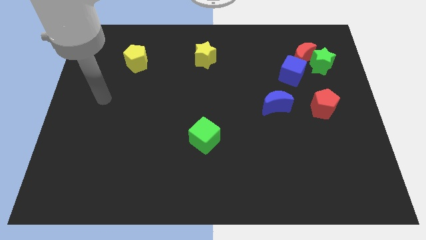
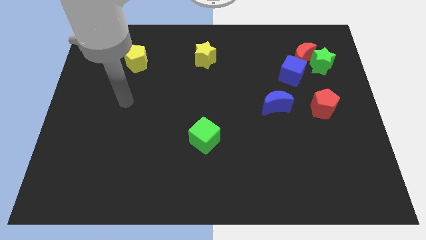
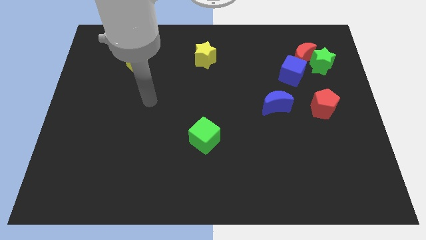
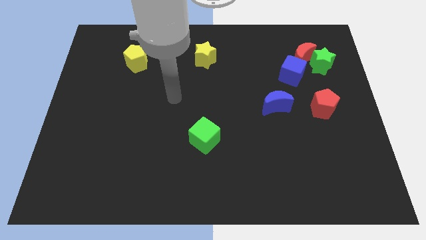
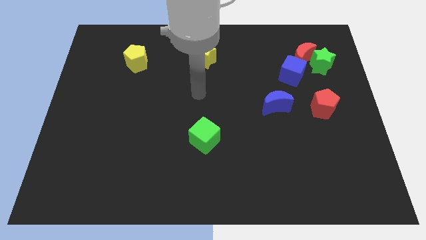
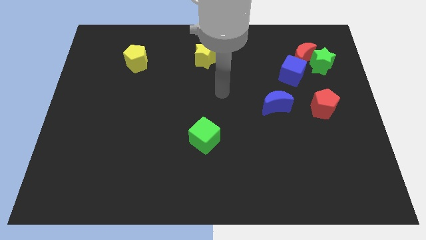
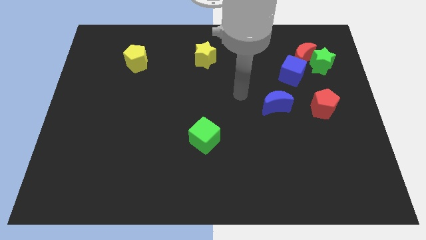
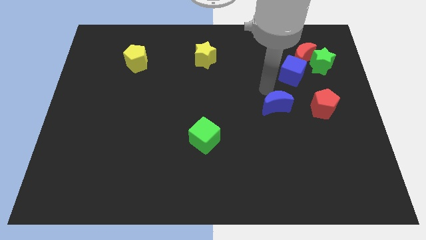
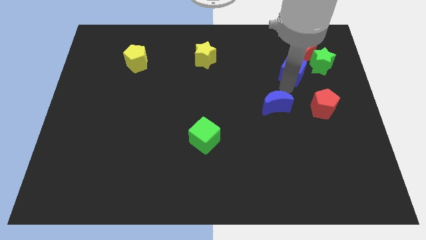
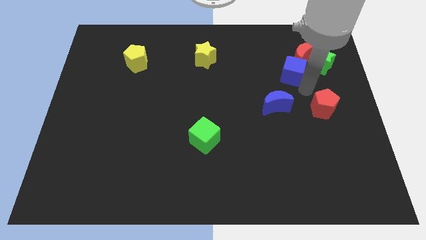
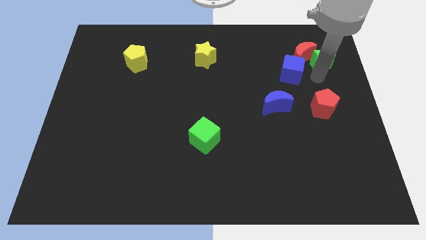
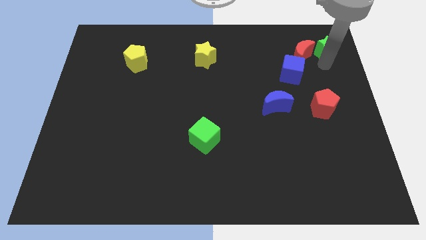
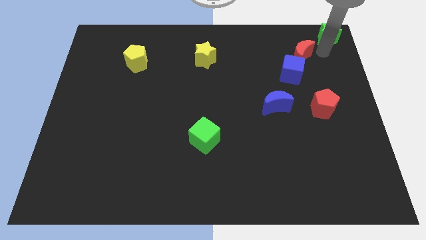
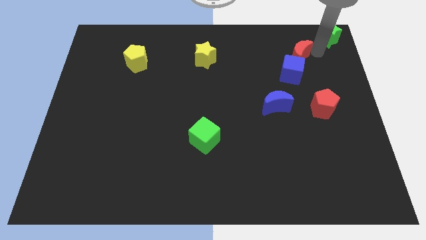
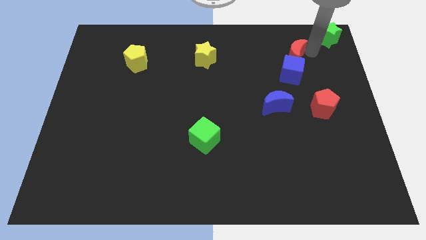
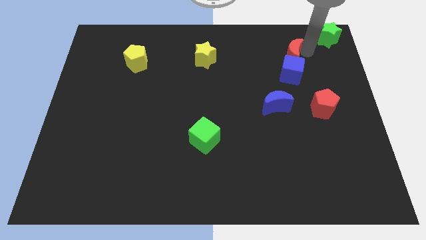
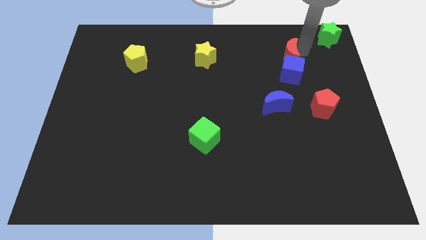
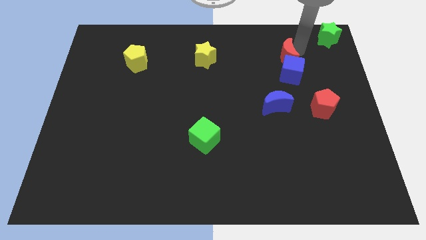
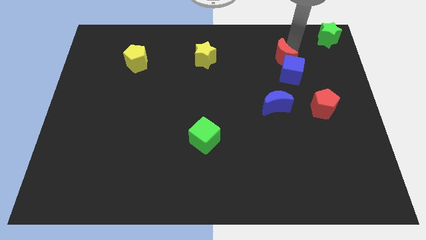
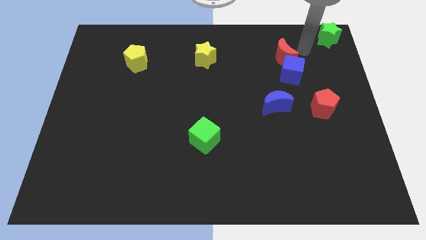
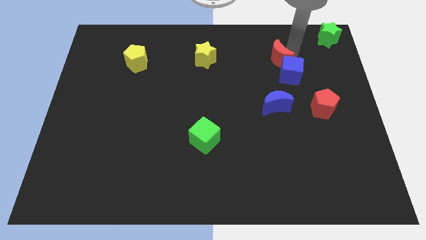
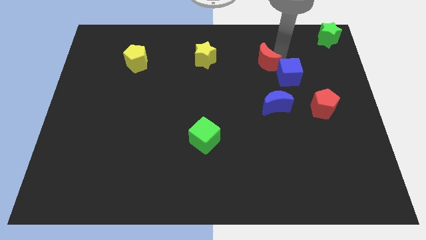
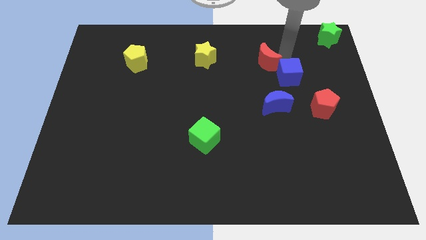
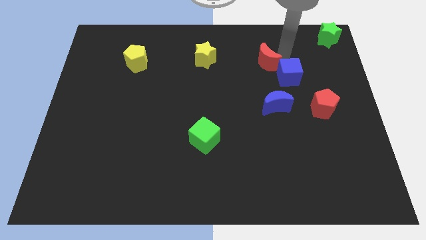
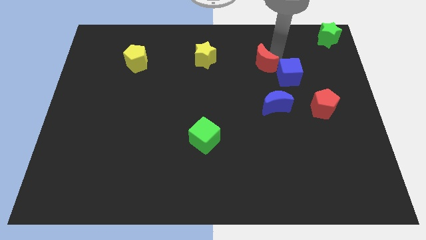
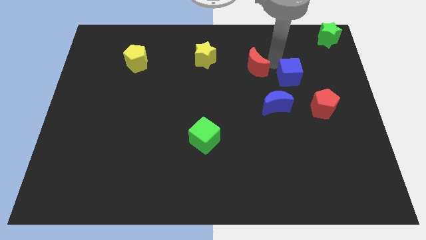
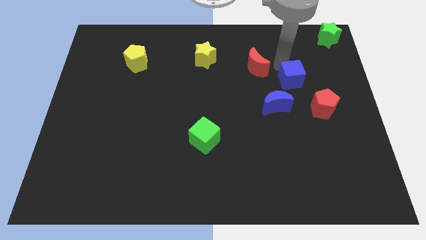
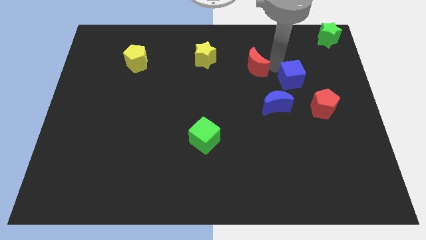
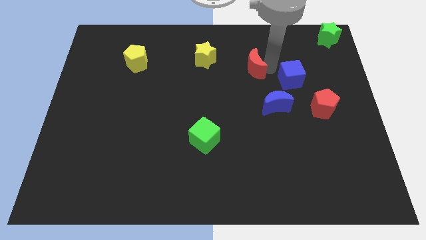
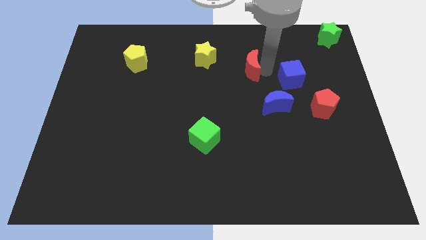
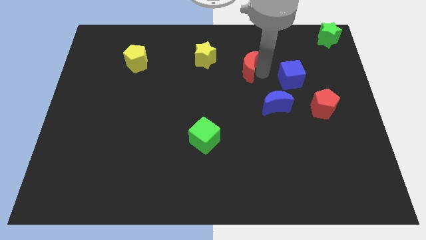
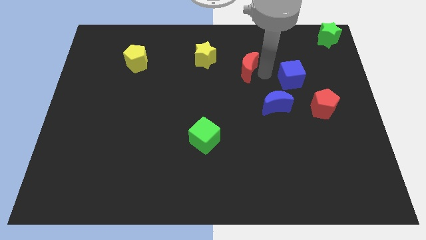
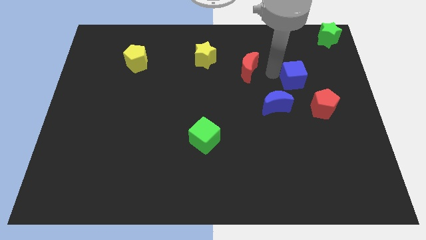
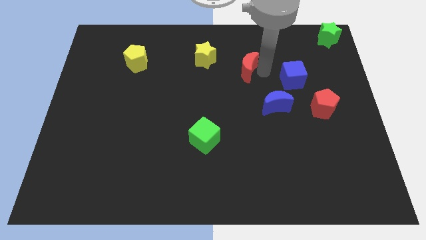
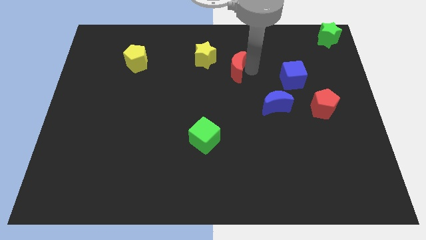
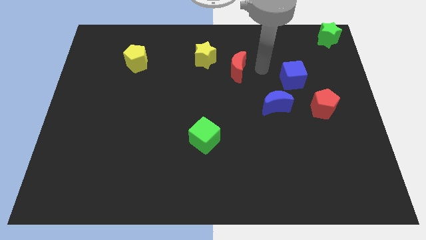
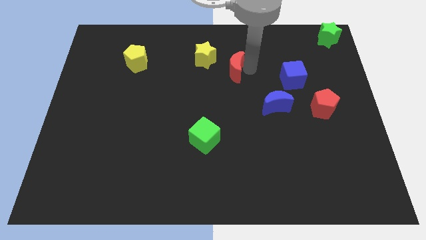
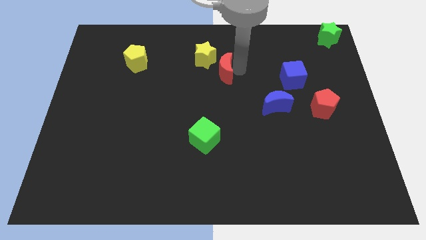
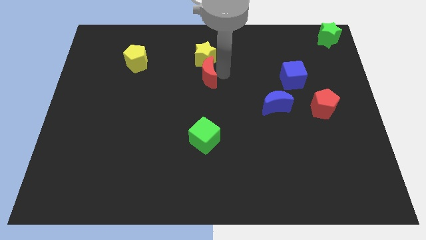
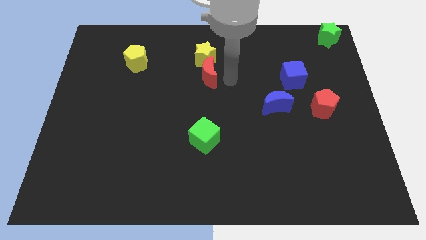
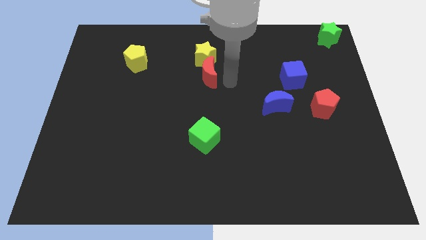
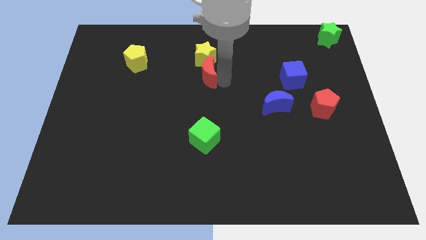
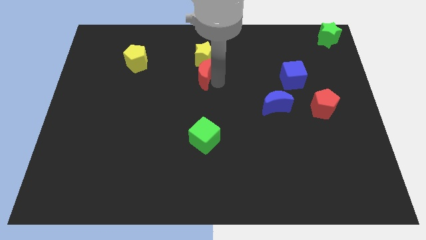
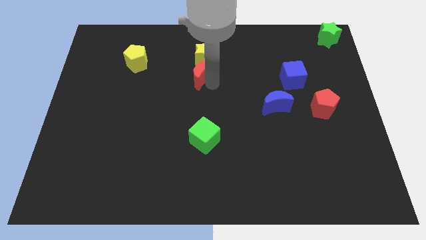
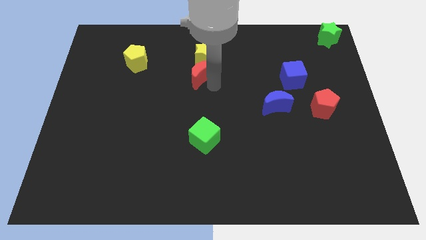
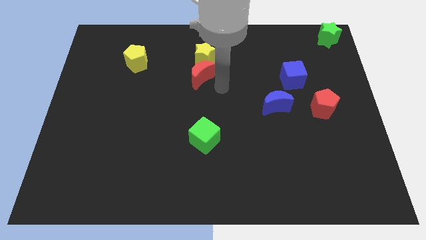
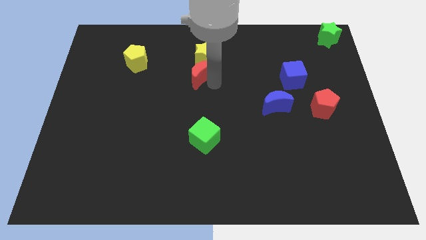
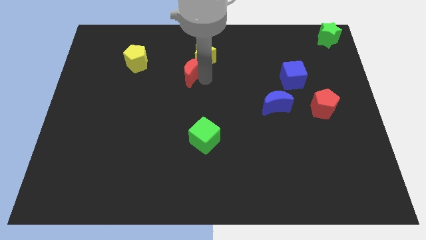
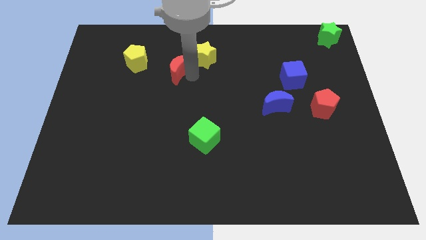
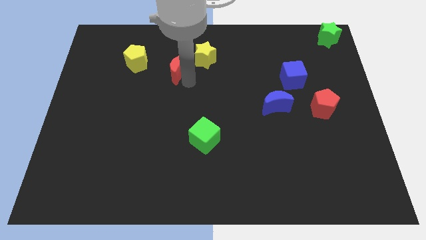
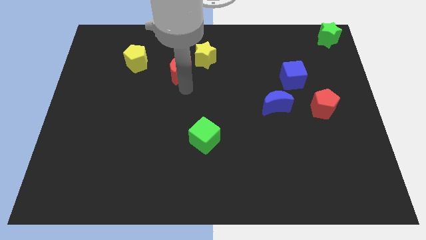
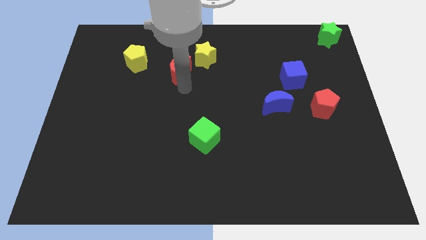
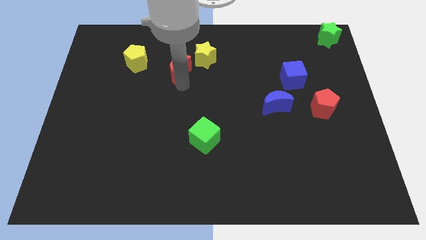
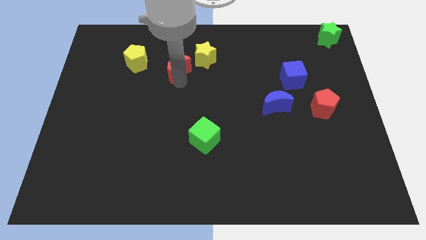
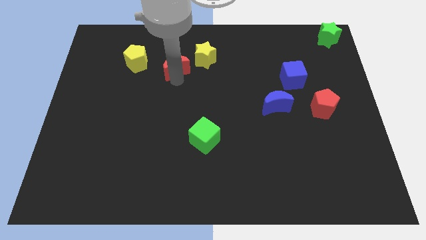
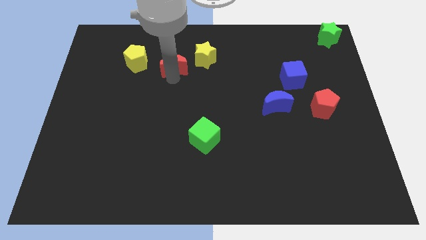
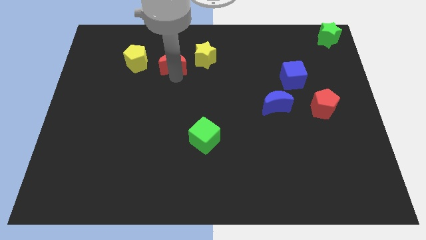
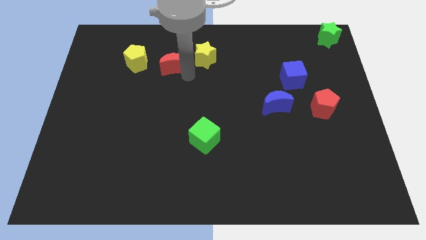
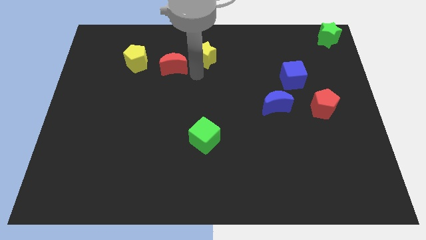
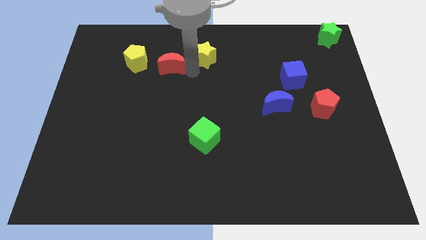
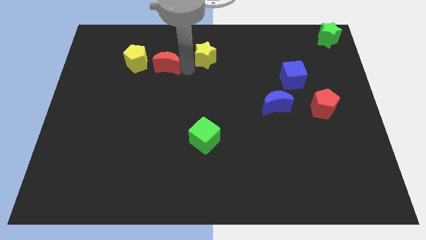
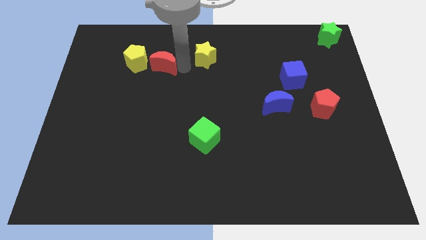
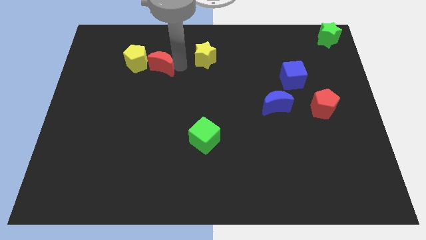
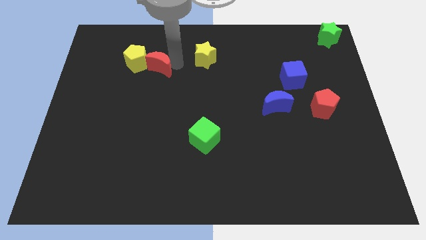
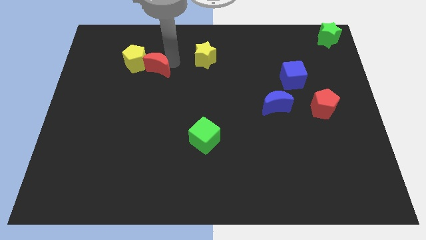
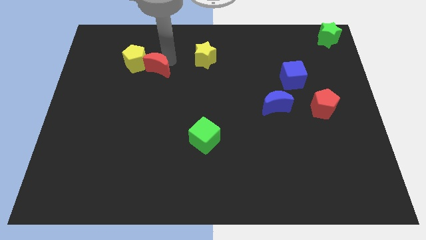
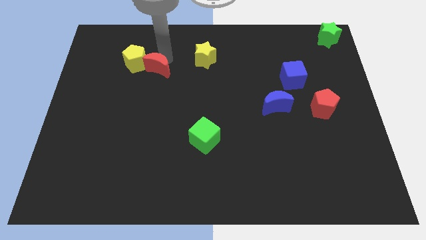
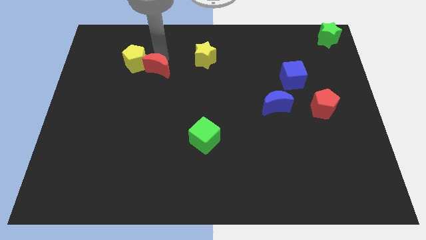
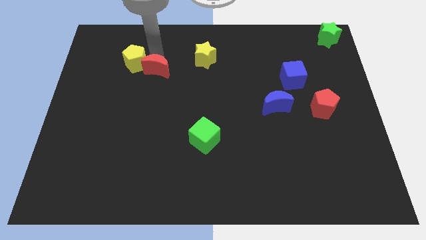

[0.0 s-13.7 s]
put the red moon close to the yellow pentagon
